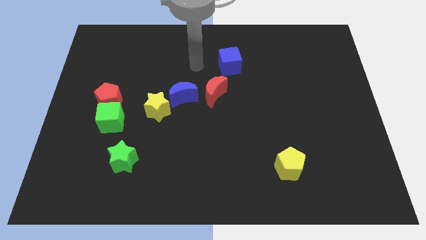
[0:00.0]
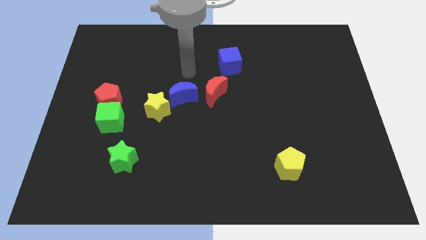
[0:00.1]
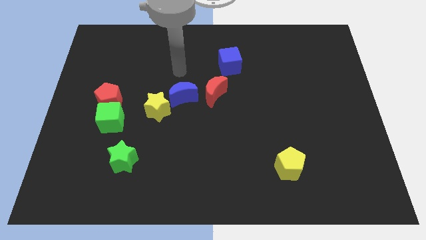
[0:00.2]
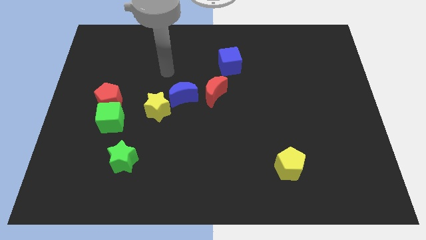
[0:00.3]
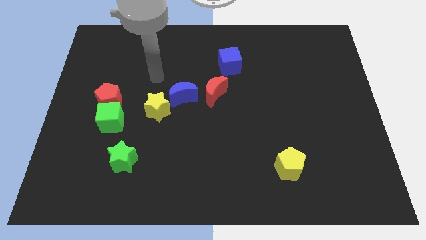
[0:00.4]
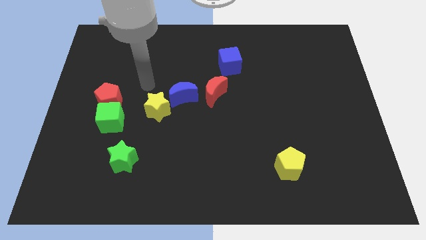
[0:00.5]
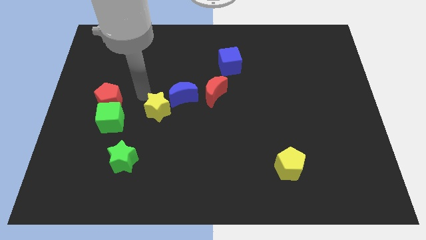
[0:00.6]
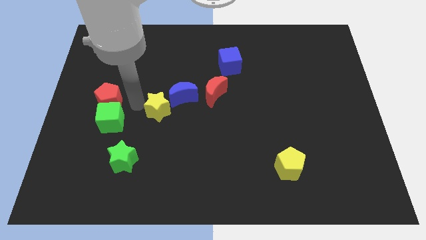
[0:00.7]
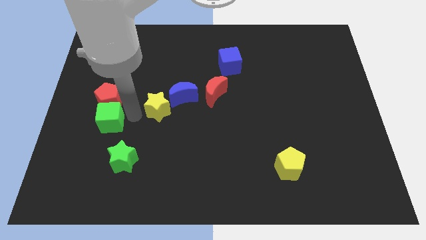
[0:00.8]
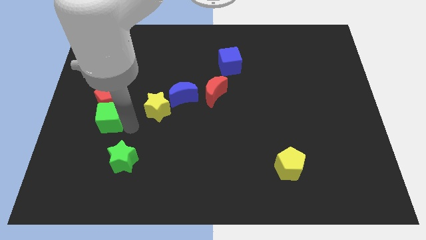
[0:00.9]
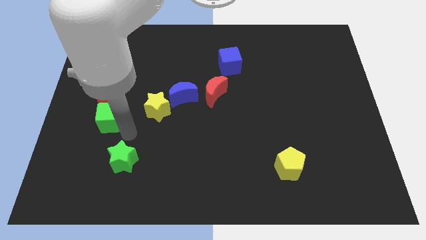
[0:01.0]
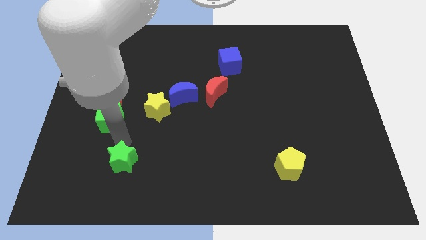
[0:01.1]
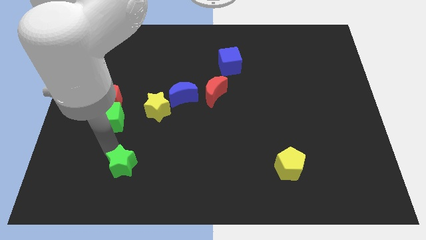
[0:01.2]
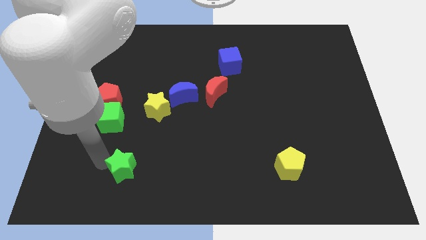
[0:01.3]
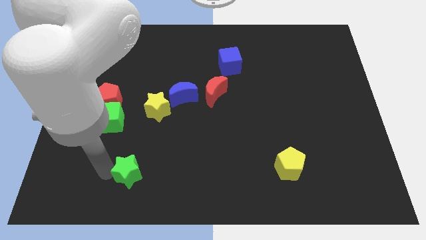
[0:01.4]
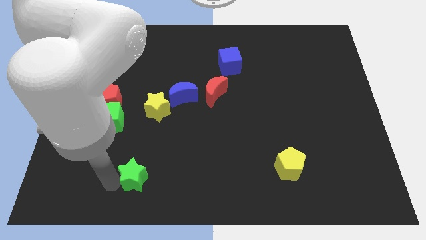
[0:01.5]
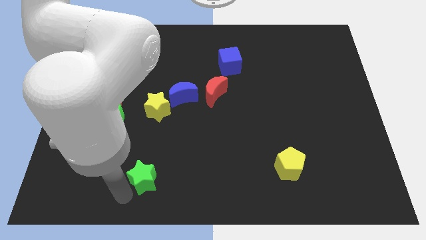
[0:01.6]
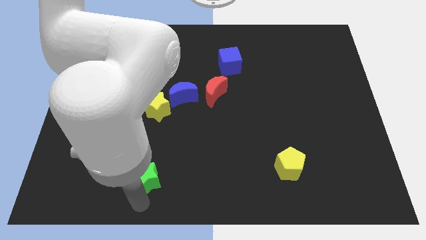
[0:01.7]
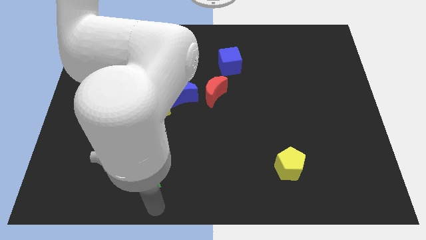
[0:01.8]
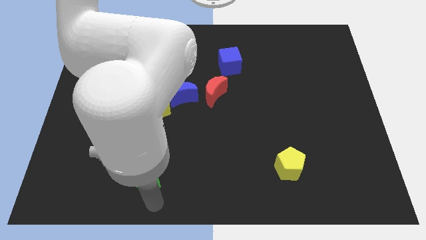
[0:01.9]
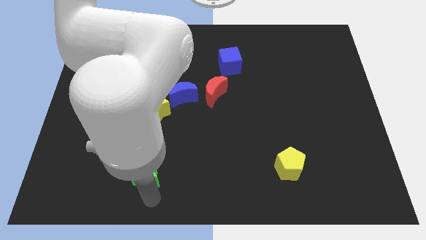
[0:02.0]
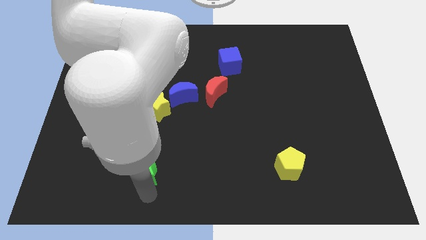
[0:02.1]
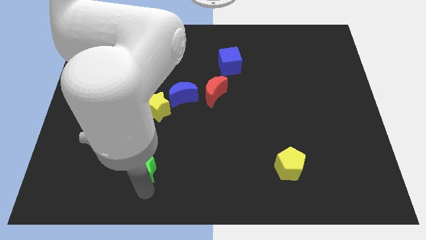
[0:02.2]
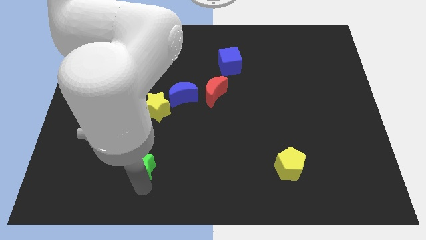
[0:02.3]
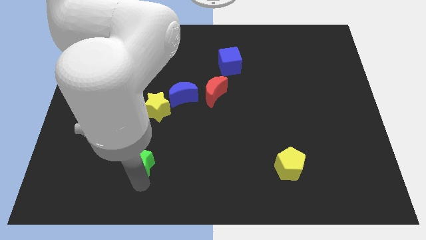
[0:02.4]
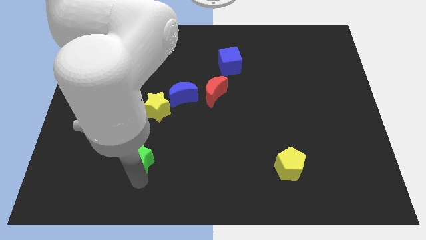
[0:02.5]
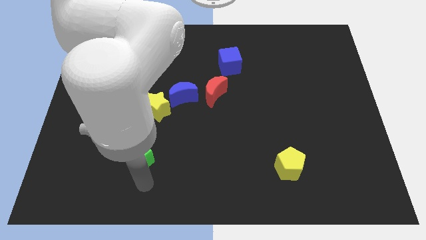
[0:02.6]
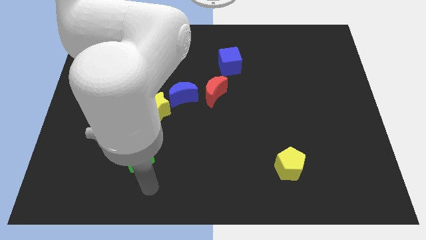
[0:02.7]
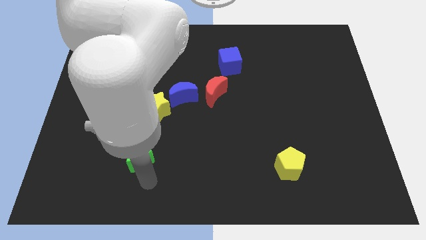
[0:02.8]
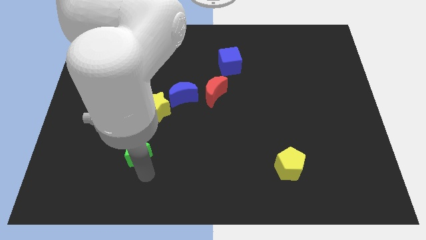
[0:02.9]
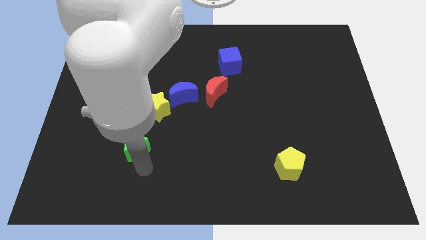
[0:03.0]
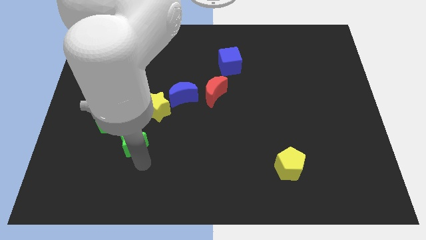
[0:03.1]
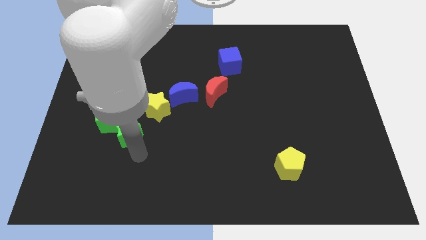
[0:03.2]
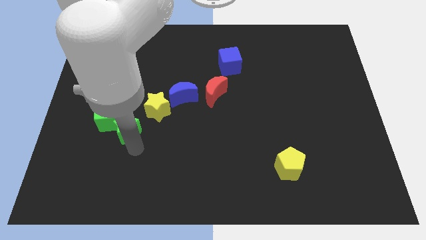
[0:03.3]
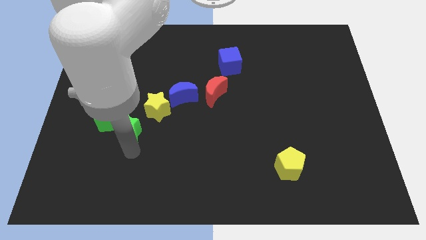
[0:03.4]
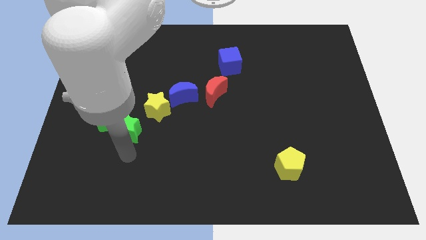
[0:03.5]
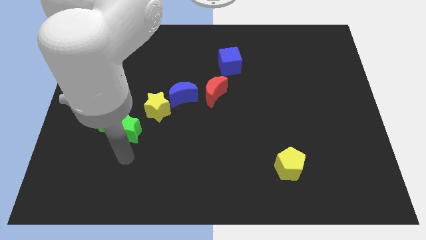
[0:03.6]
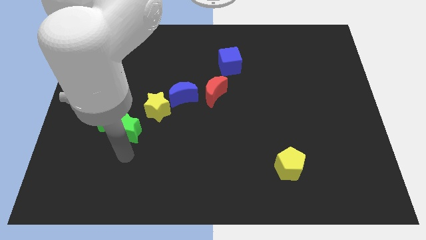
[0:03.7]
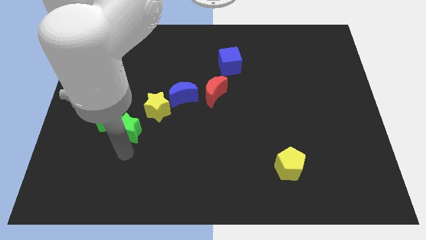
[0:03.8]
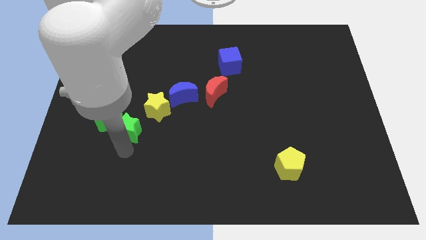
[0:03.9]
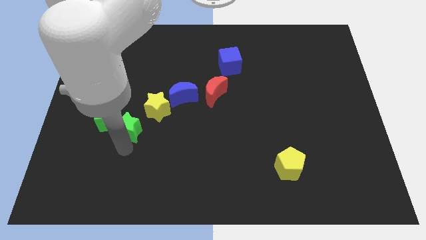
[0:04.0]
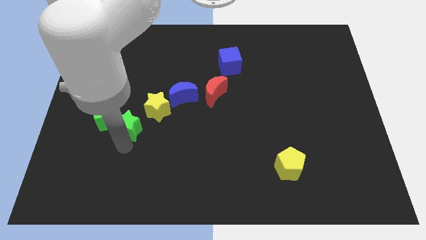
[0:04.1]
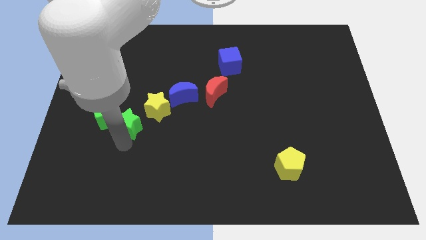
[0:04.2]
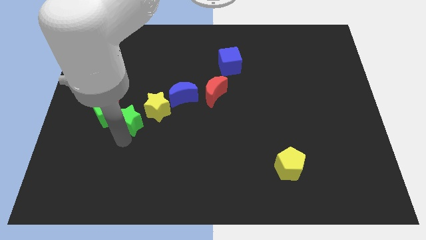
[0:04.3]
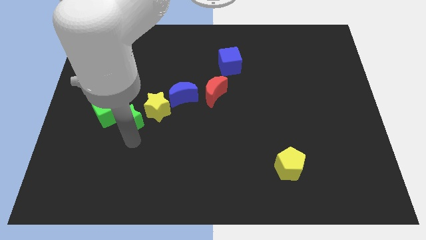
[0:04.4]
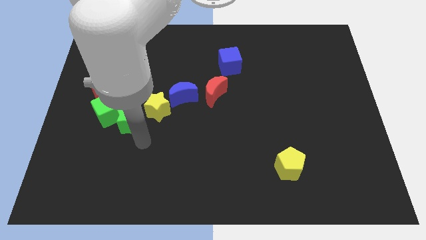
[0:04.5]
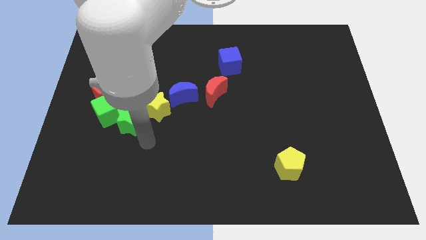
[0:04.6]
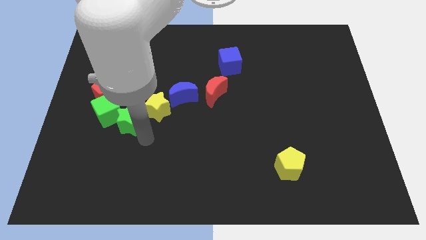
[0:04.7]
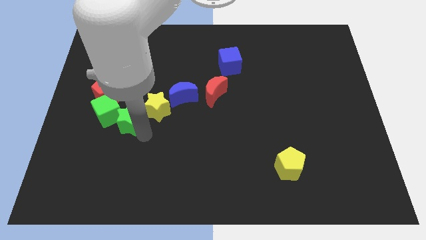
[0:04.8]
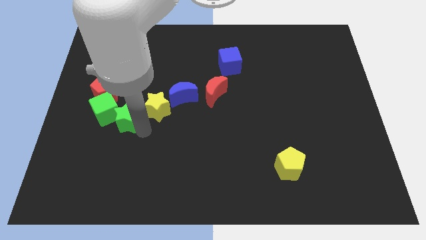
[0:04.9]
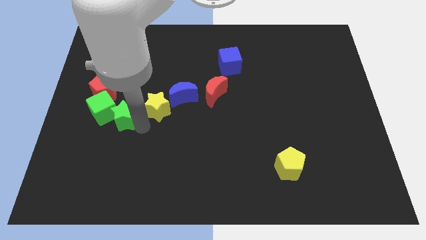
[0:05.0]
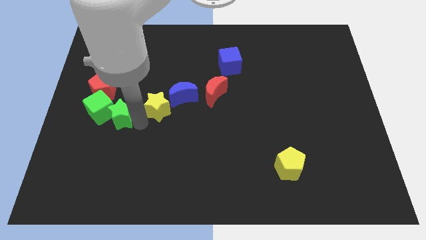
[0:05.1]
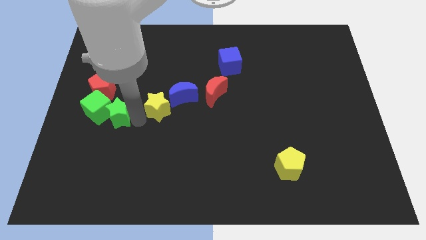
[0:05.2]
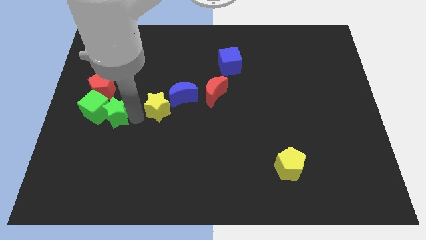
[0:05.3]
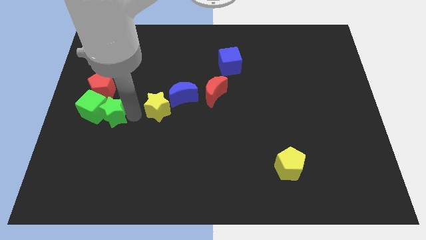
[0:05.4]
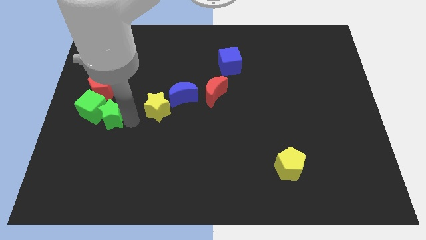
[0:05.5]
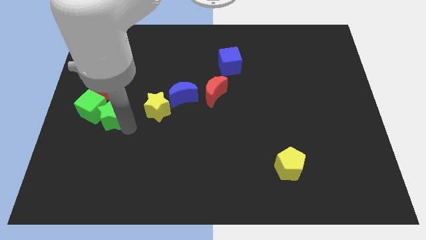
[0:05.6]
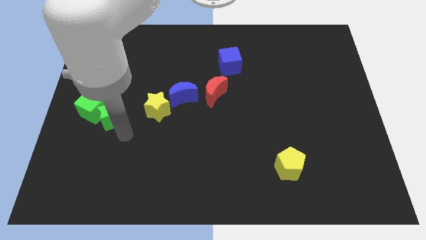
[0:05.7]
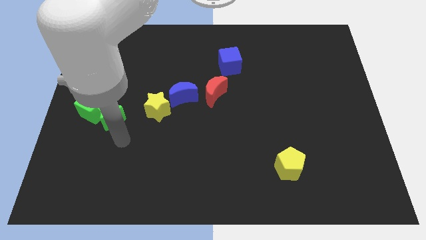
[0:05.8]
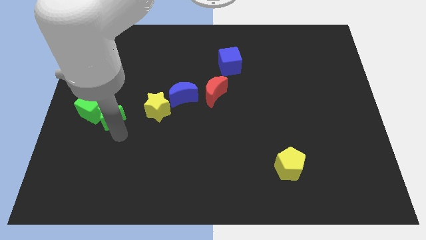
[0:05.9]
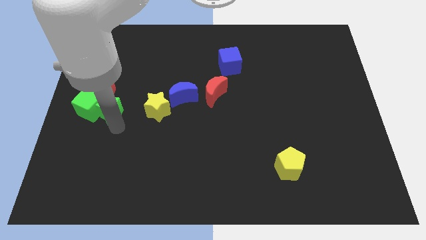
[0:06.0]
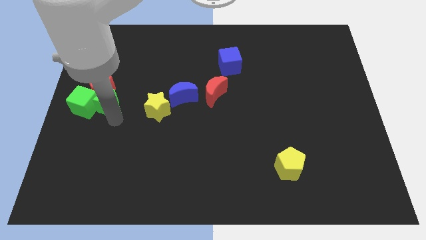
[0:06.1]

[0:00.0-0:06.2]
slide the green star to the red pentagon

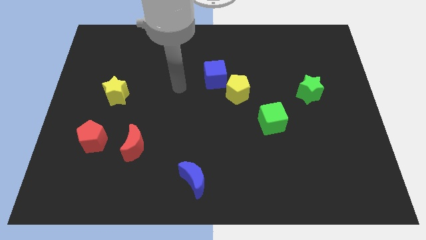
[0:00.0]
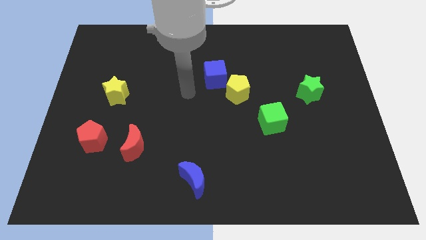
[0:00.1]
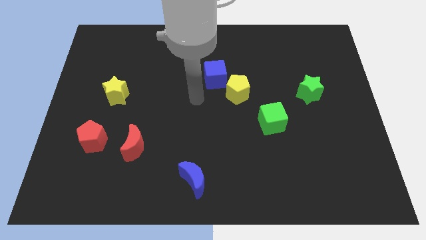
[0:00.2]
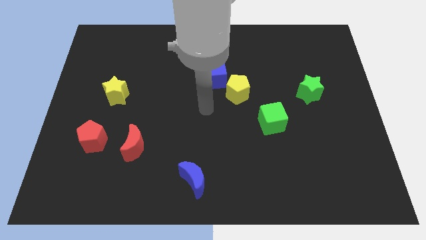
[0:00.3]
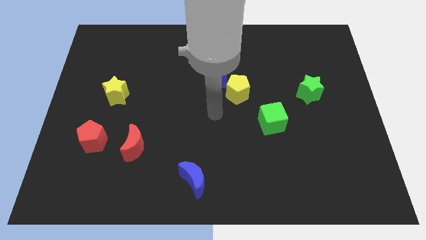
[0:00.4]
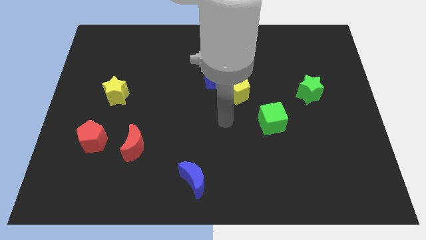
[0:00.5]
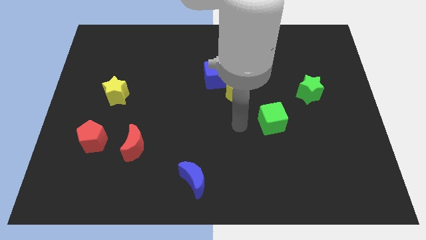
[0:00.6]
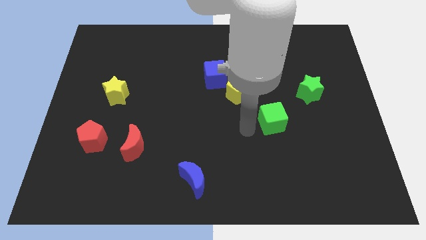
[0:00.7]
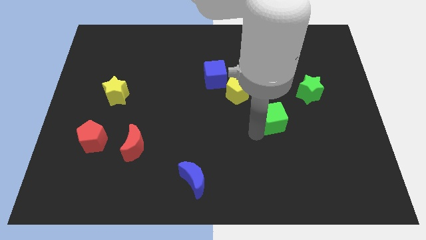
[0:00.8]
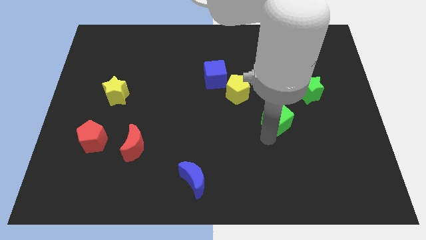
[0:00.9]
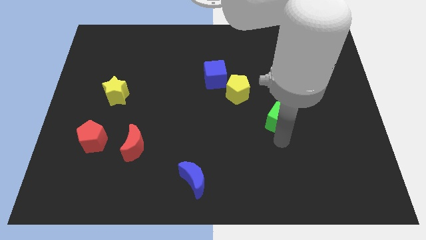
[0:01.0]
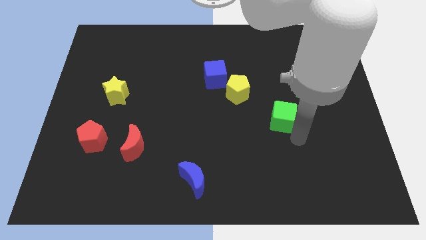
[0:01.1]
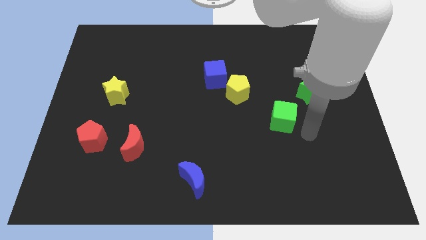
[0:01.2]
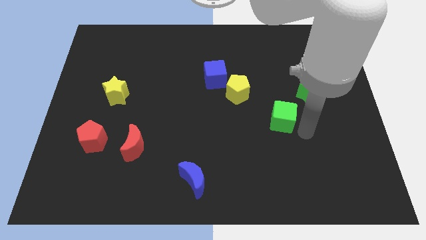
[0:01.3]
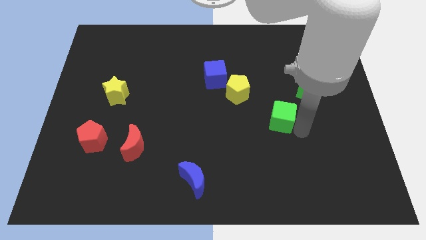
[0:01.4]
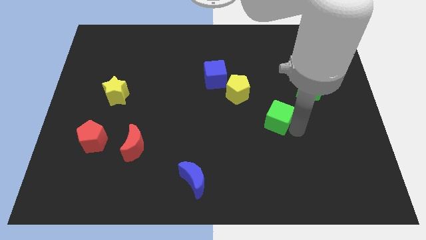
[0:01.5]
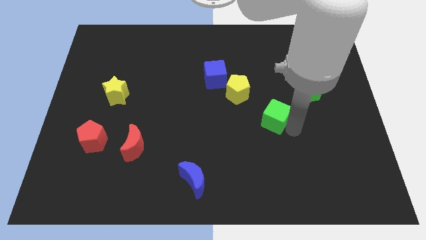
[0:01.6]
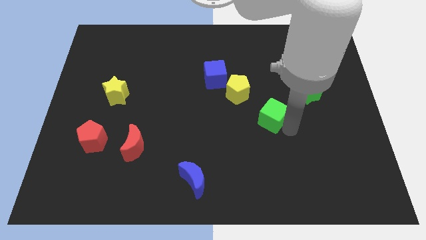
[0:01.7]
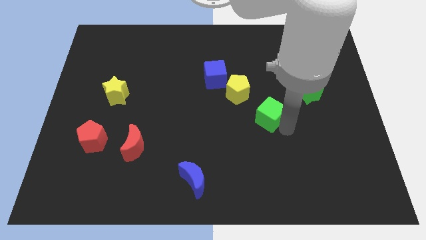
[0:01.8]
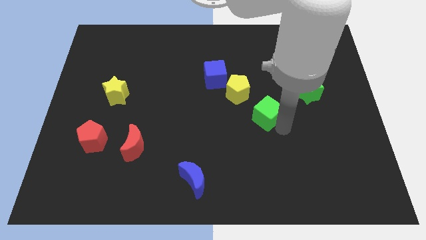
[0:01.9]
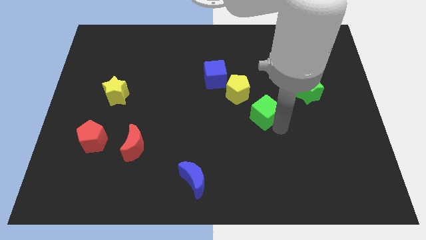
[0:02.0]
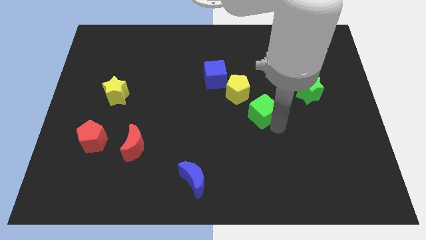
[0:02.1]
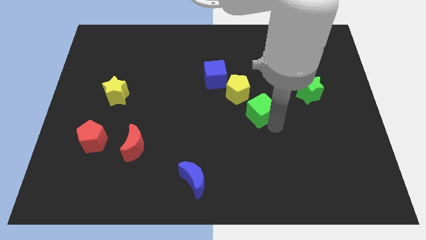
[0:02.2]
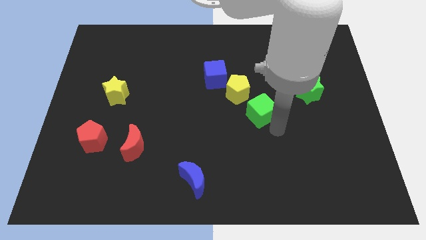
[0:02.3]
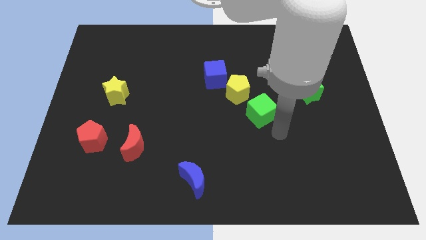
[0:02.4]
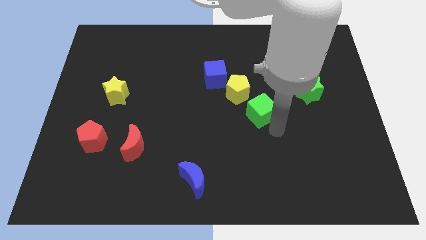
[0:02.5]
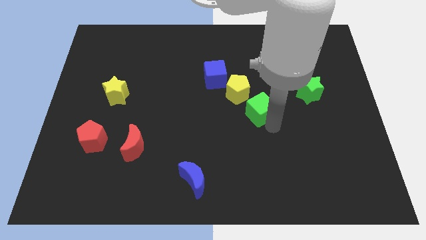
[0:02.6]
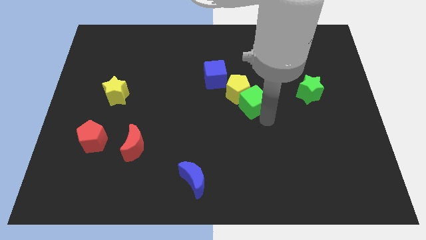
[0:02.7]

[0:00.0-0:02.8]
put the green cube to the yellow pentagon
